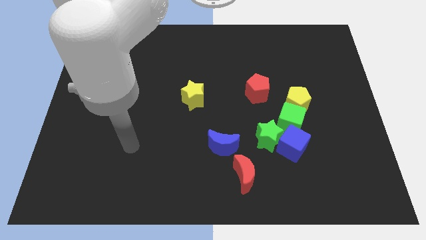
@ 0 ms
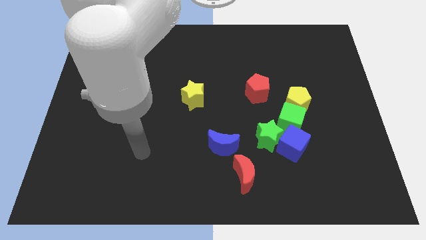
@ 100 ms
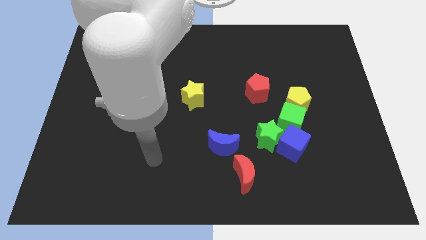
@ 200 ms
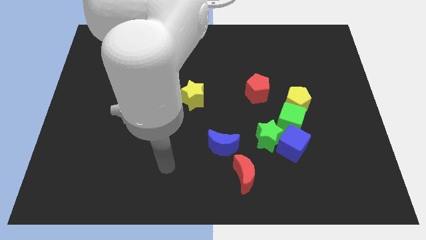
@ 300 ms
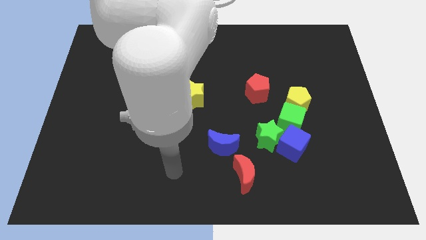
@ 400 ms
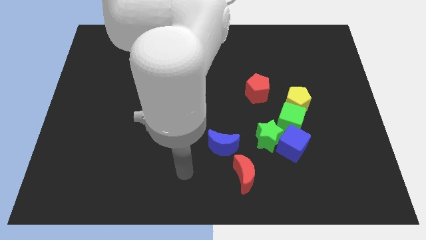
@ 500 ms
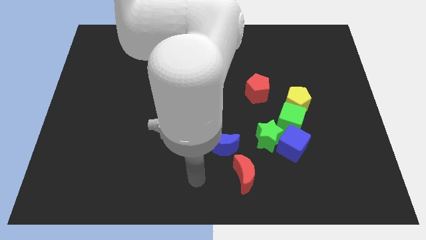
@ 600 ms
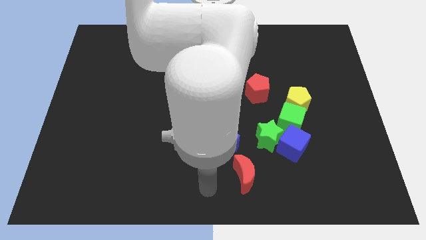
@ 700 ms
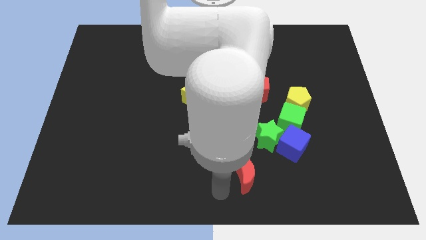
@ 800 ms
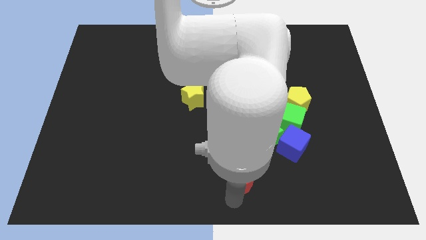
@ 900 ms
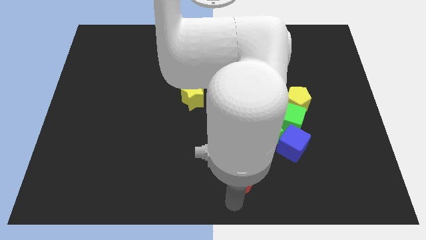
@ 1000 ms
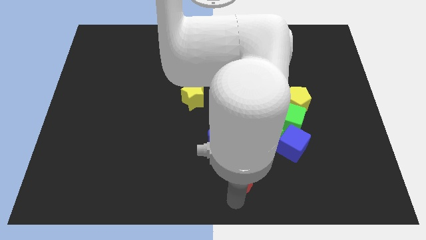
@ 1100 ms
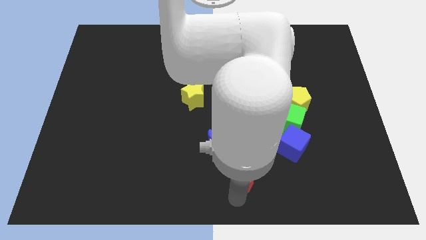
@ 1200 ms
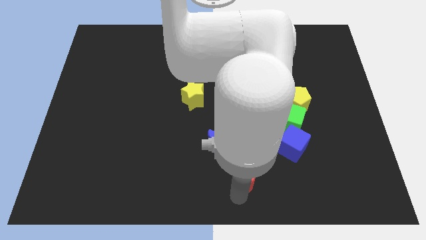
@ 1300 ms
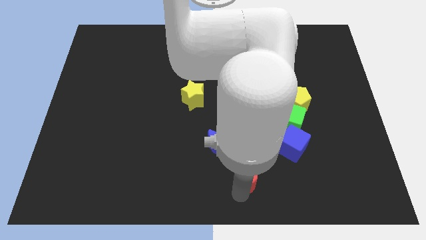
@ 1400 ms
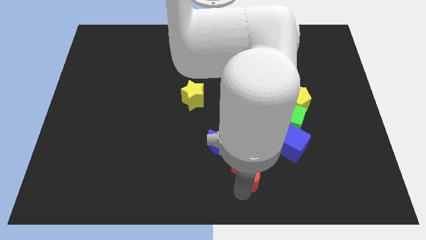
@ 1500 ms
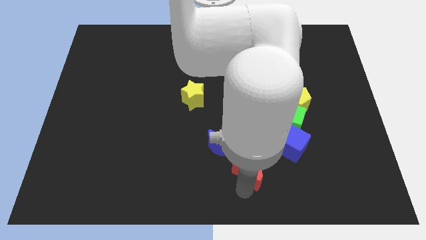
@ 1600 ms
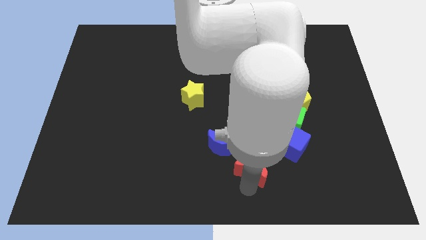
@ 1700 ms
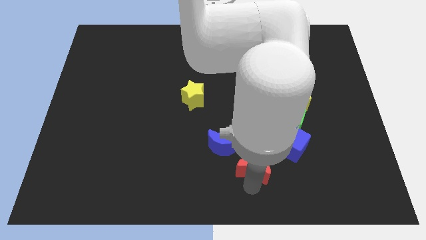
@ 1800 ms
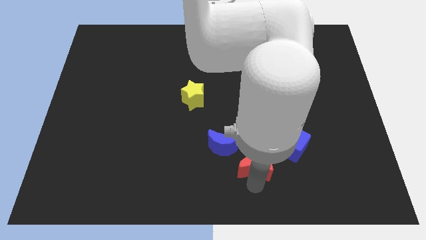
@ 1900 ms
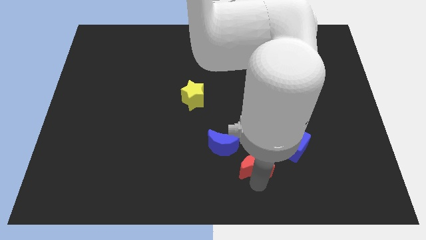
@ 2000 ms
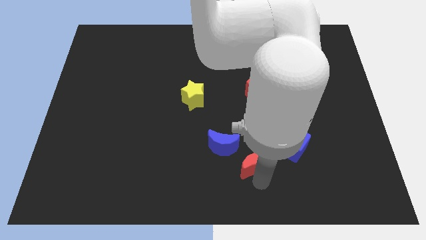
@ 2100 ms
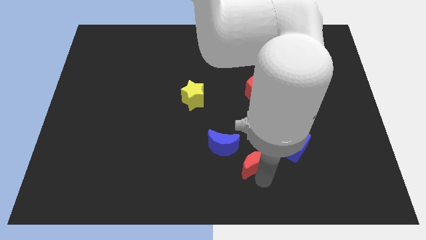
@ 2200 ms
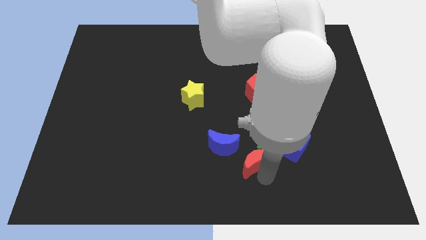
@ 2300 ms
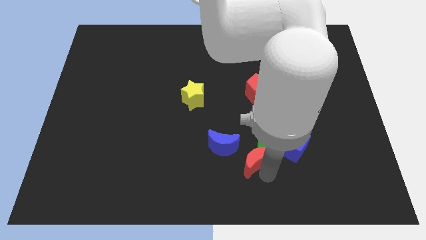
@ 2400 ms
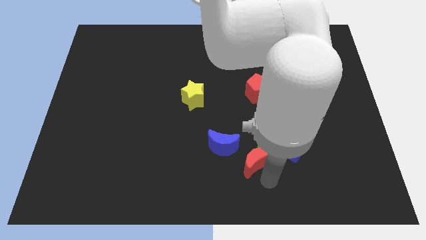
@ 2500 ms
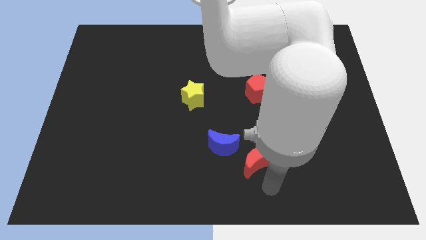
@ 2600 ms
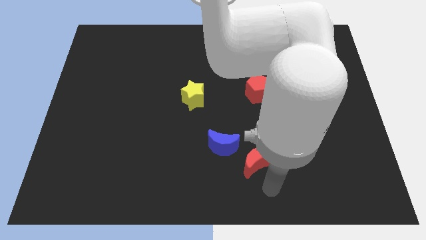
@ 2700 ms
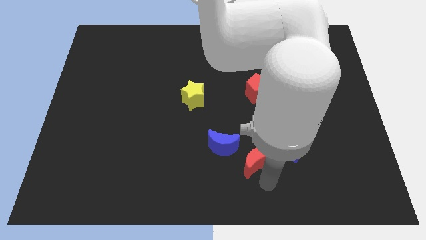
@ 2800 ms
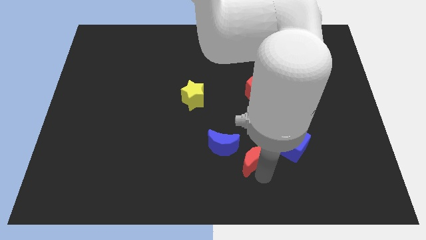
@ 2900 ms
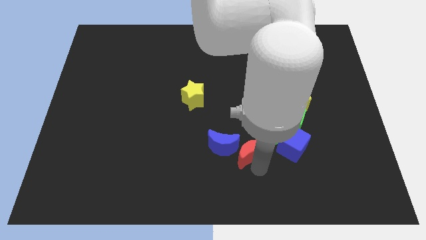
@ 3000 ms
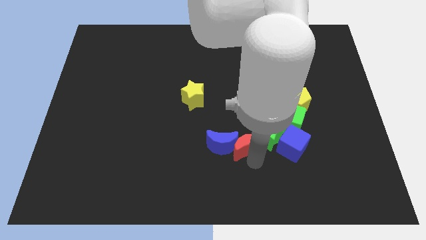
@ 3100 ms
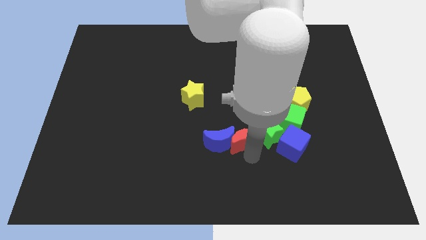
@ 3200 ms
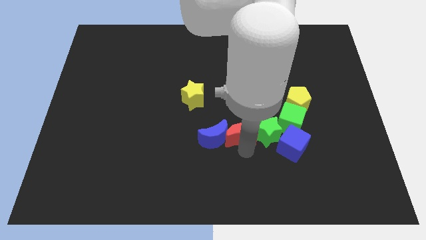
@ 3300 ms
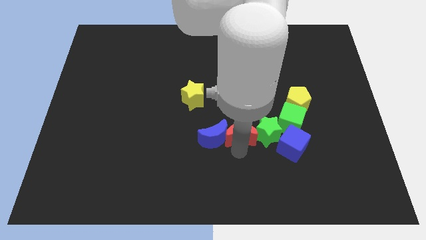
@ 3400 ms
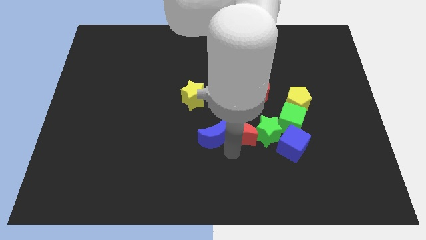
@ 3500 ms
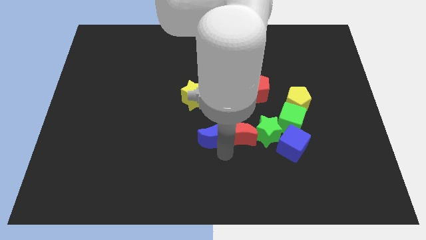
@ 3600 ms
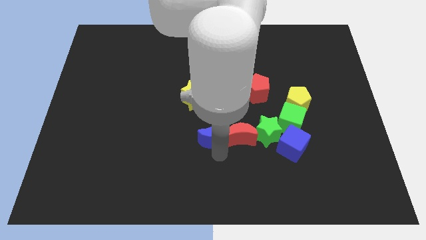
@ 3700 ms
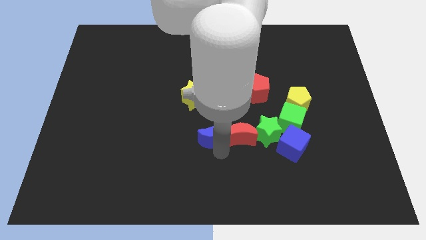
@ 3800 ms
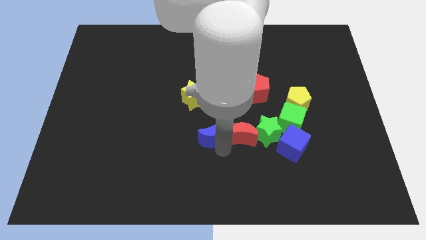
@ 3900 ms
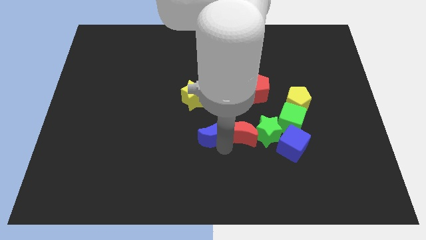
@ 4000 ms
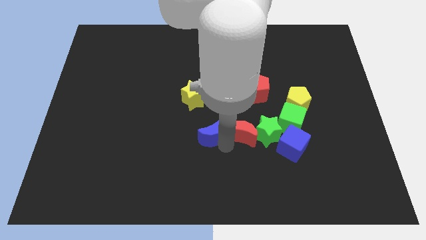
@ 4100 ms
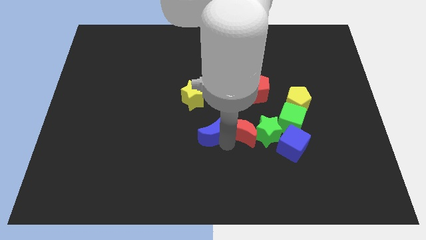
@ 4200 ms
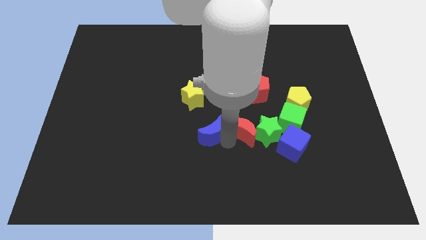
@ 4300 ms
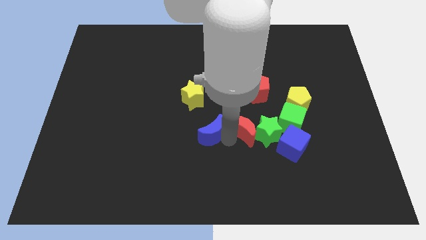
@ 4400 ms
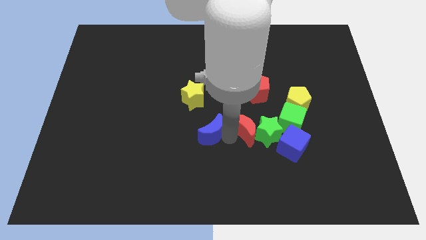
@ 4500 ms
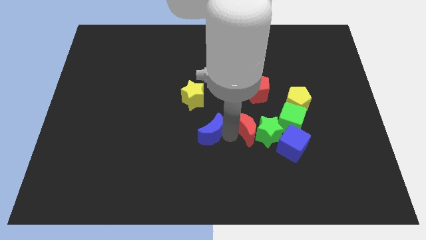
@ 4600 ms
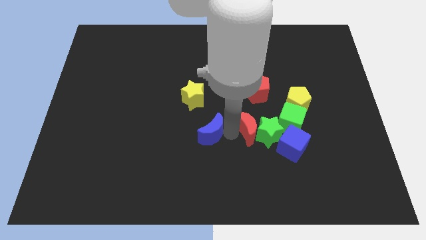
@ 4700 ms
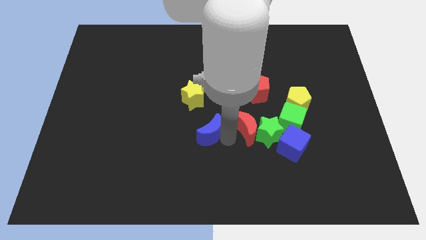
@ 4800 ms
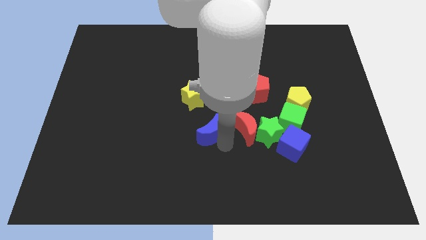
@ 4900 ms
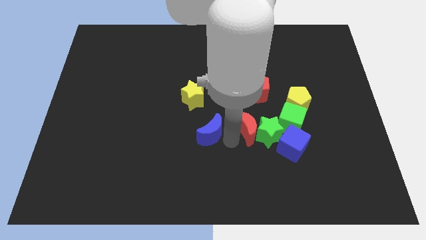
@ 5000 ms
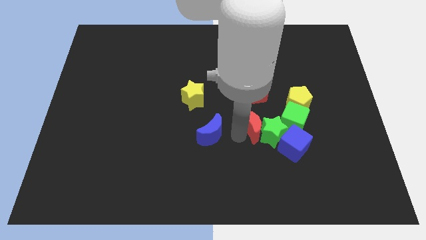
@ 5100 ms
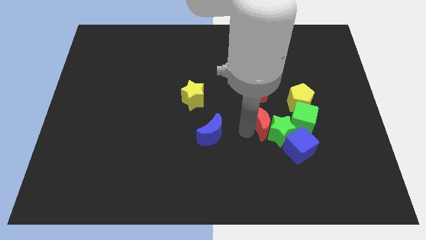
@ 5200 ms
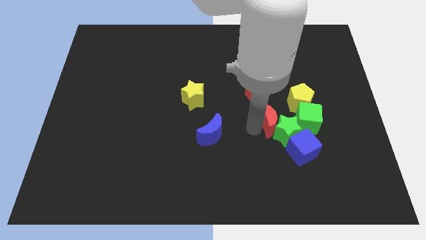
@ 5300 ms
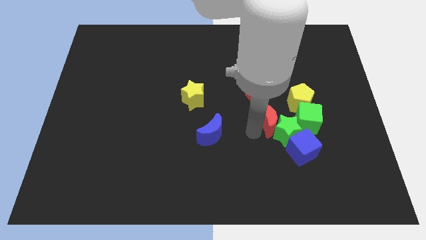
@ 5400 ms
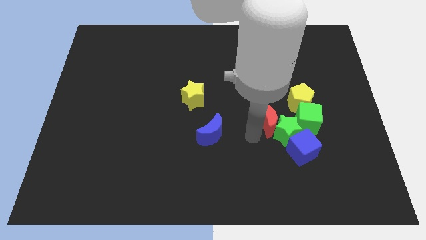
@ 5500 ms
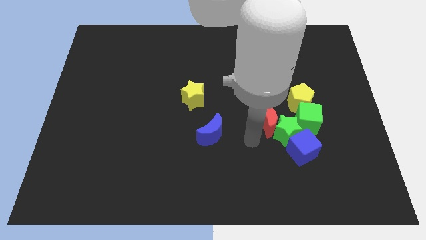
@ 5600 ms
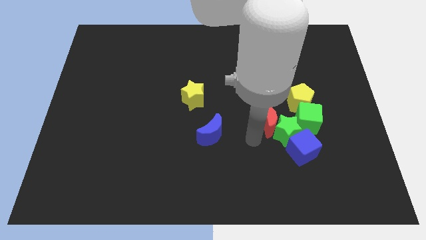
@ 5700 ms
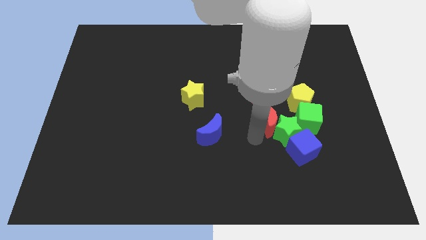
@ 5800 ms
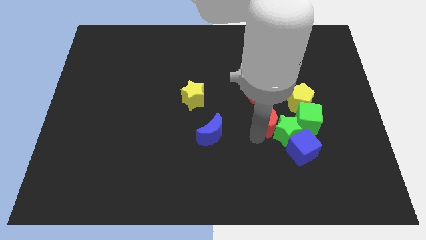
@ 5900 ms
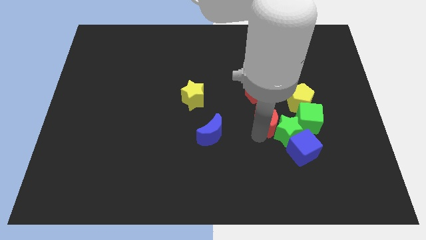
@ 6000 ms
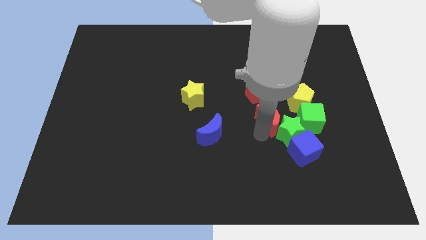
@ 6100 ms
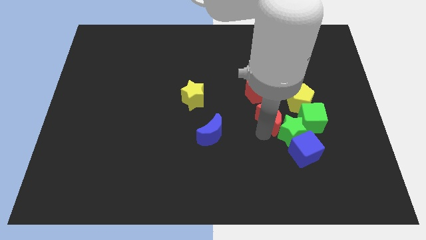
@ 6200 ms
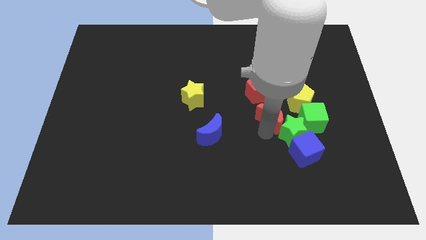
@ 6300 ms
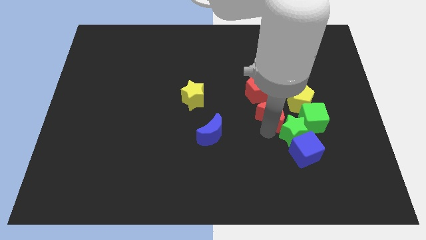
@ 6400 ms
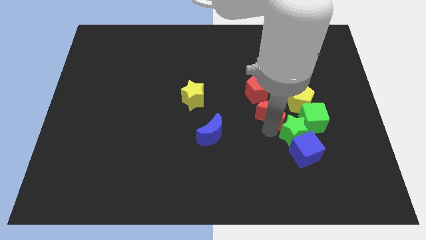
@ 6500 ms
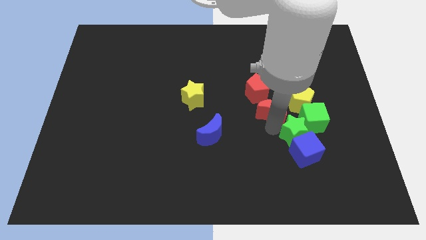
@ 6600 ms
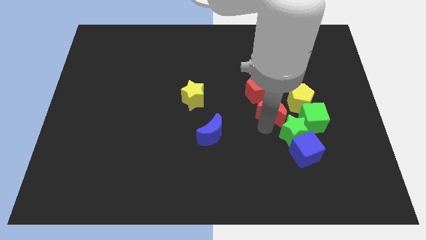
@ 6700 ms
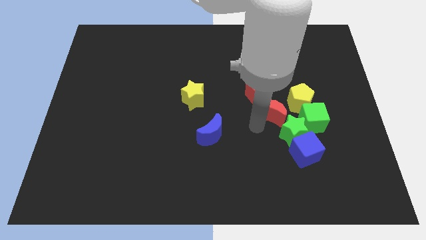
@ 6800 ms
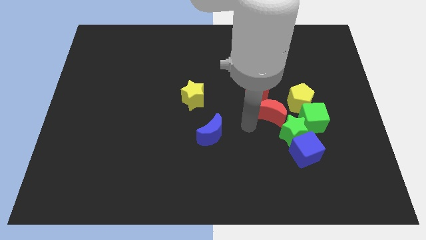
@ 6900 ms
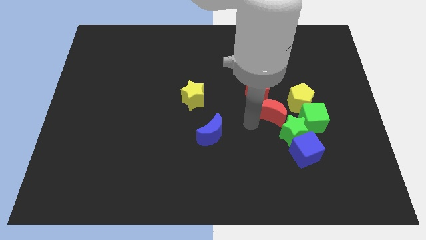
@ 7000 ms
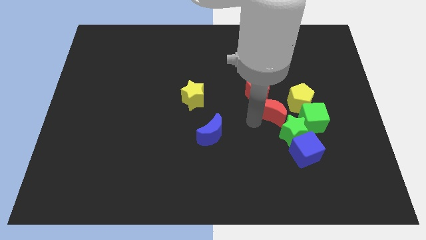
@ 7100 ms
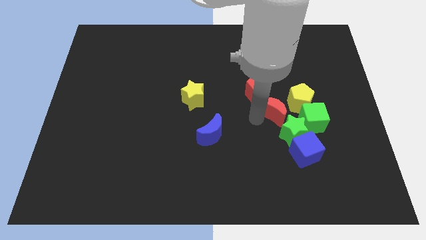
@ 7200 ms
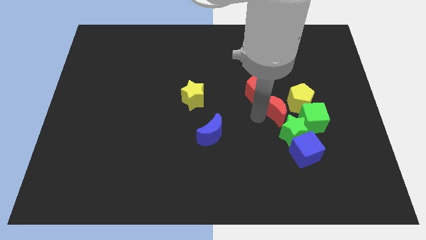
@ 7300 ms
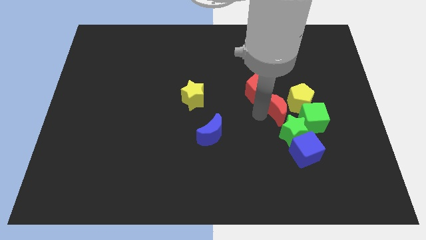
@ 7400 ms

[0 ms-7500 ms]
slide the red moon close to the yellow pentagon
